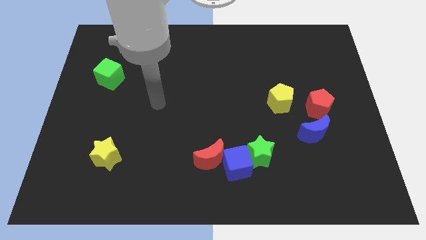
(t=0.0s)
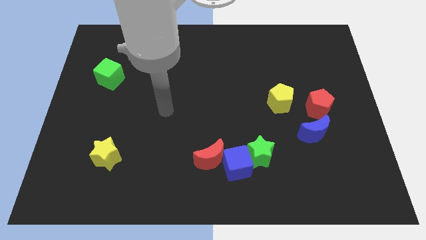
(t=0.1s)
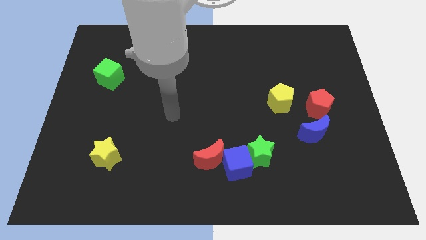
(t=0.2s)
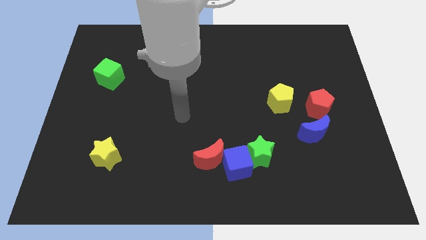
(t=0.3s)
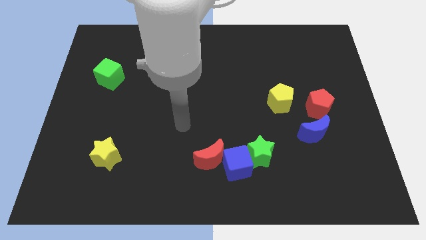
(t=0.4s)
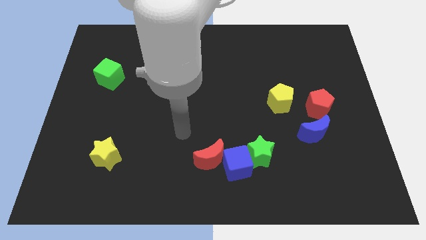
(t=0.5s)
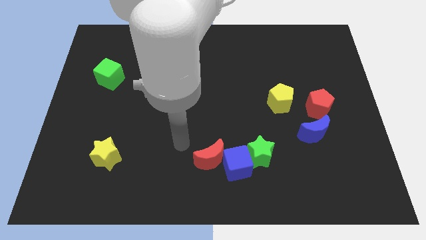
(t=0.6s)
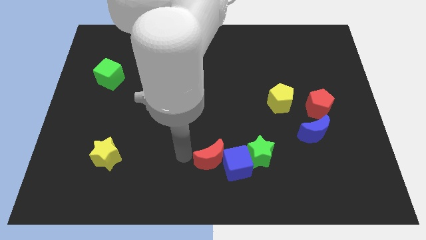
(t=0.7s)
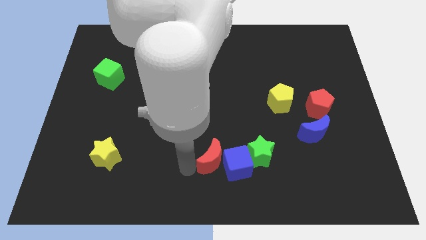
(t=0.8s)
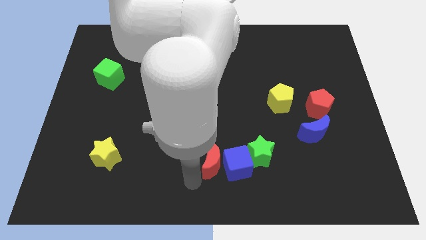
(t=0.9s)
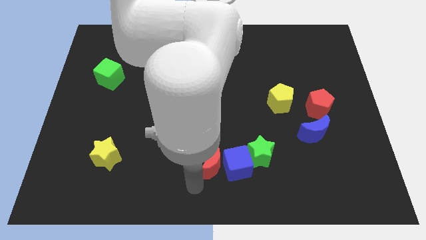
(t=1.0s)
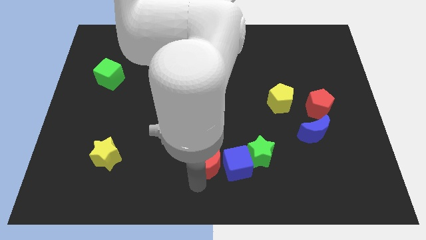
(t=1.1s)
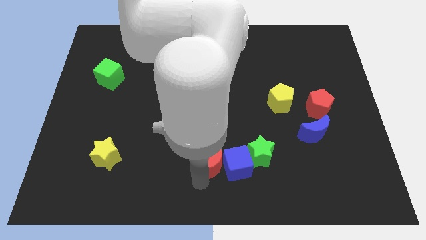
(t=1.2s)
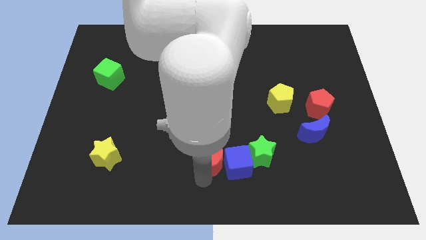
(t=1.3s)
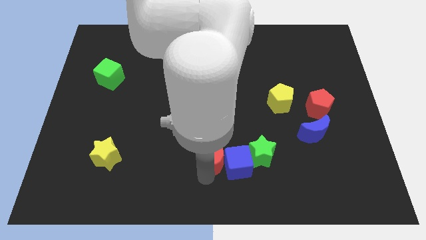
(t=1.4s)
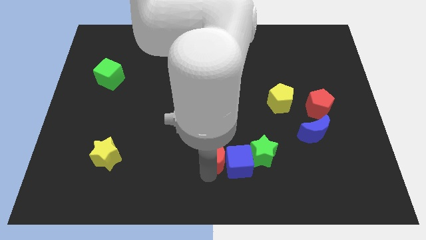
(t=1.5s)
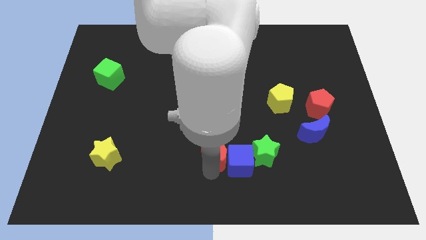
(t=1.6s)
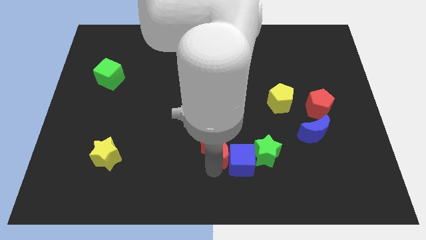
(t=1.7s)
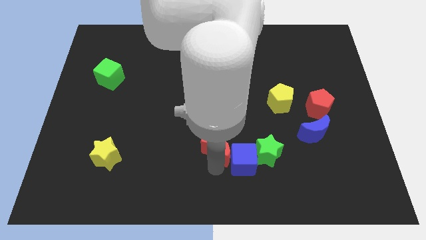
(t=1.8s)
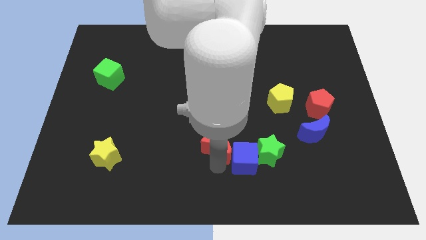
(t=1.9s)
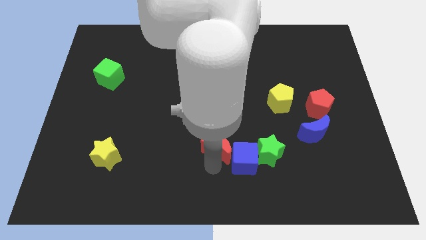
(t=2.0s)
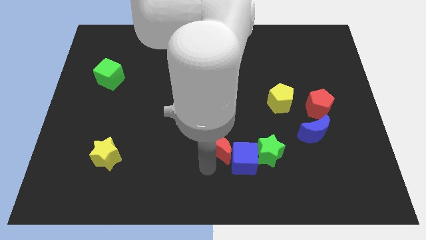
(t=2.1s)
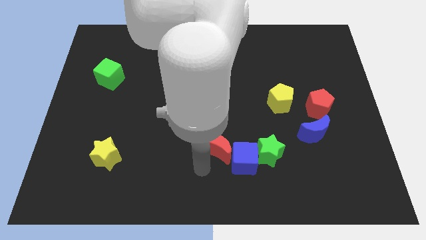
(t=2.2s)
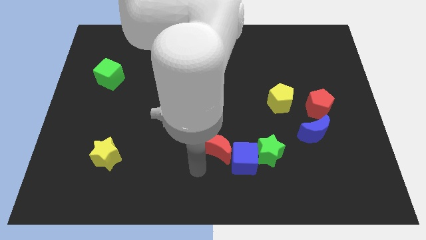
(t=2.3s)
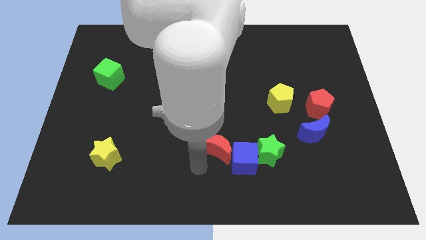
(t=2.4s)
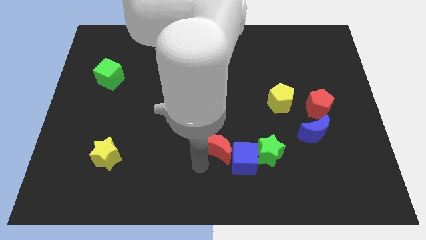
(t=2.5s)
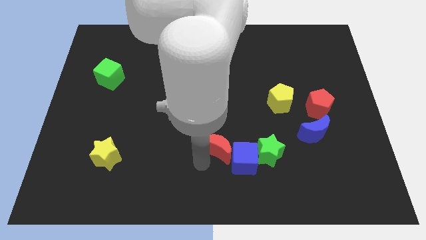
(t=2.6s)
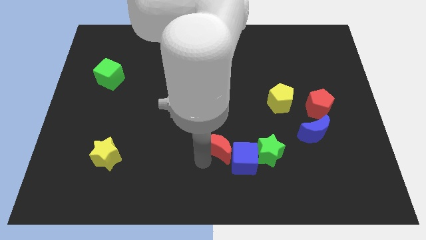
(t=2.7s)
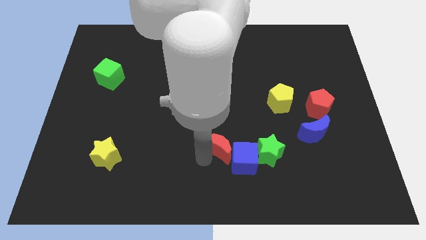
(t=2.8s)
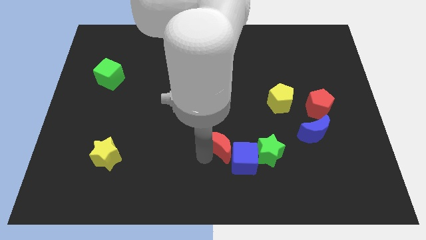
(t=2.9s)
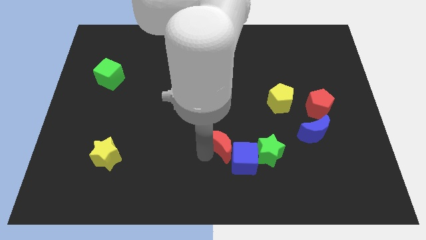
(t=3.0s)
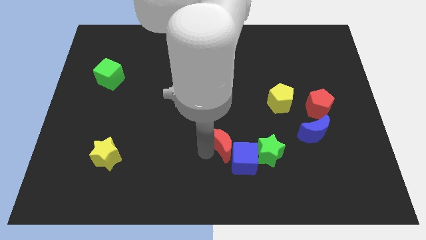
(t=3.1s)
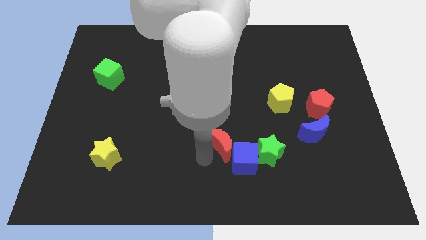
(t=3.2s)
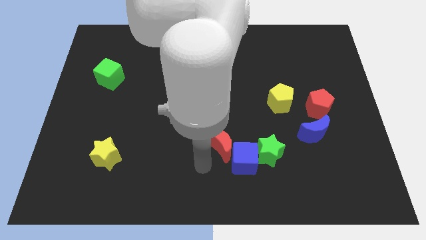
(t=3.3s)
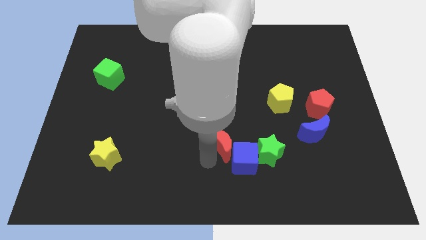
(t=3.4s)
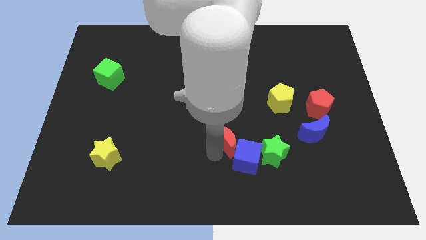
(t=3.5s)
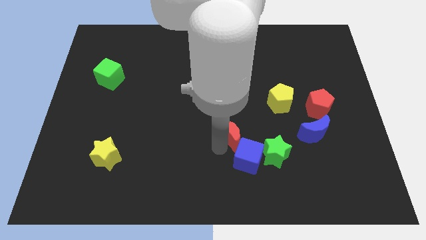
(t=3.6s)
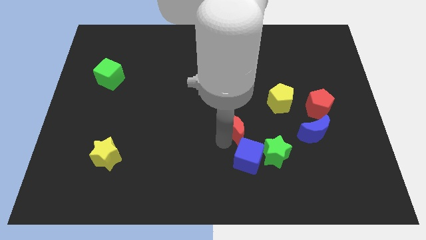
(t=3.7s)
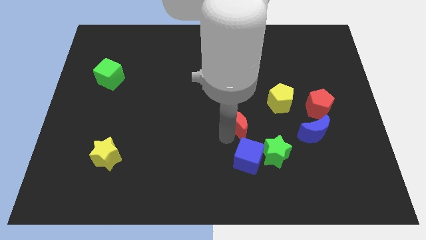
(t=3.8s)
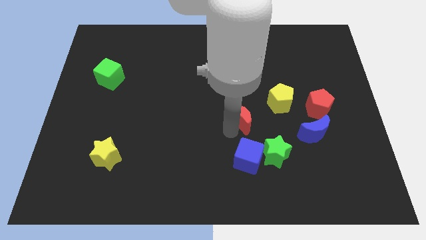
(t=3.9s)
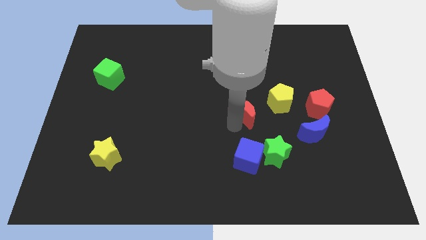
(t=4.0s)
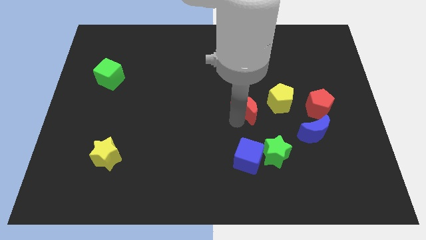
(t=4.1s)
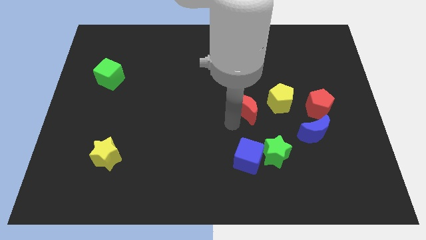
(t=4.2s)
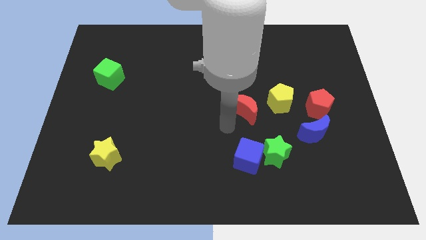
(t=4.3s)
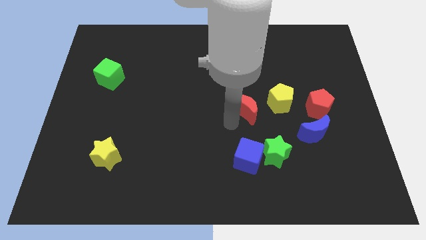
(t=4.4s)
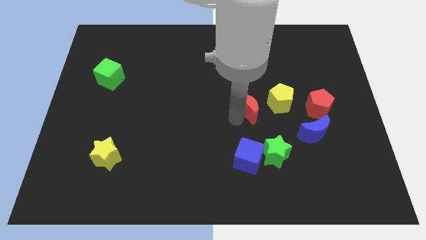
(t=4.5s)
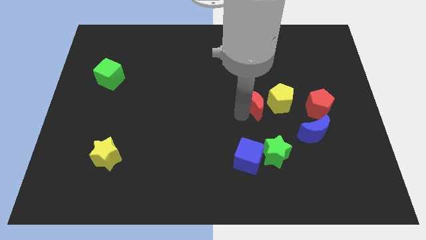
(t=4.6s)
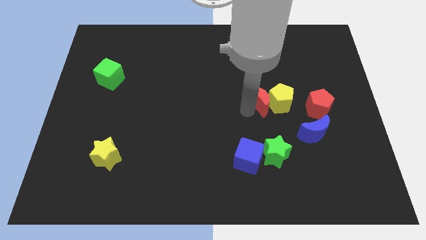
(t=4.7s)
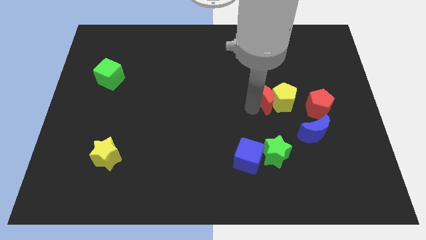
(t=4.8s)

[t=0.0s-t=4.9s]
move the red moon up and then to the right

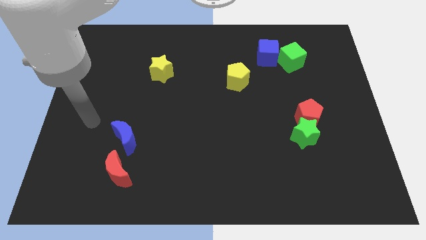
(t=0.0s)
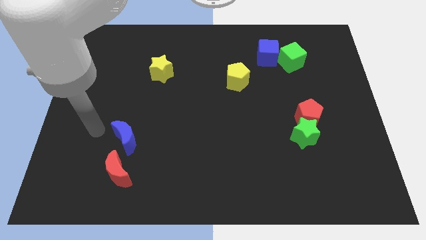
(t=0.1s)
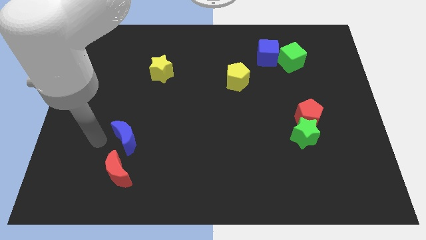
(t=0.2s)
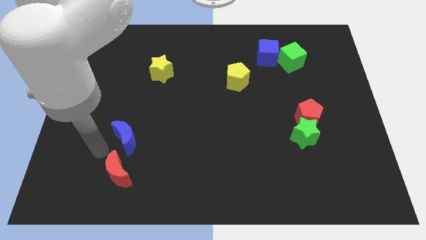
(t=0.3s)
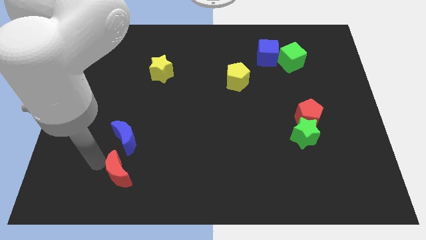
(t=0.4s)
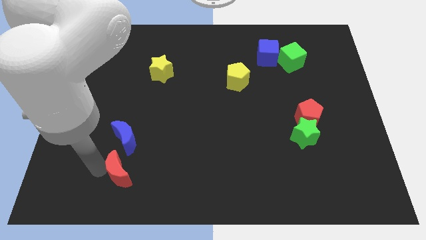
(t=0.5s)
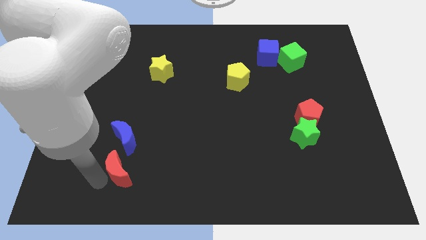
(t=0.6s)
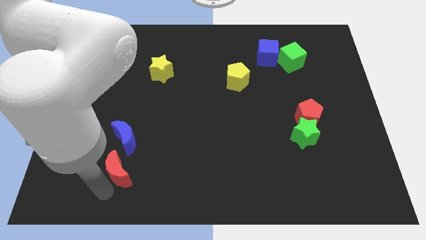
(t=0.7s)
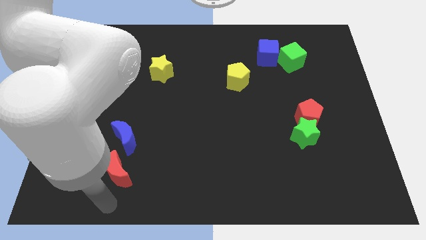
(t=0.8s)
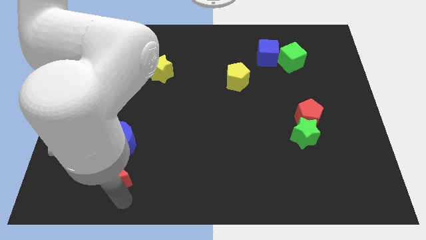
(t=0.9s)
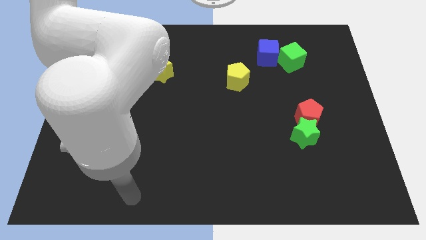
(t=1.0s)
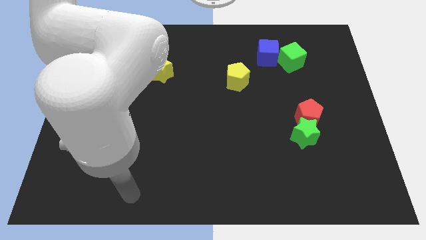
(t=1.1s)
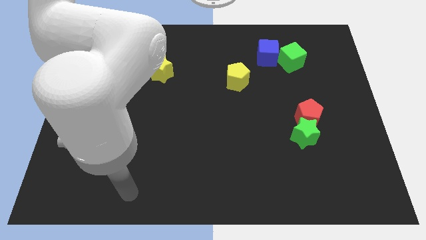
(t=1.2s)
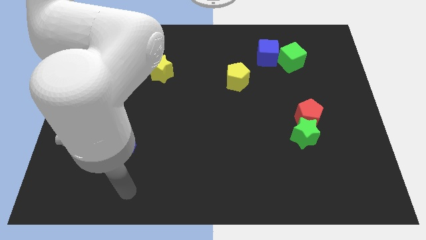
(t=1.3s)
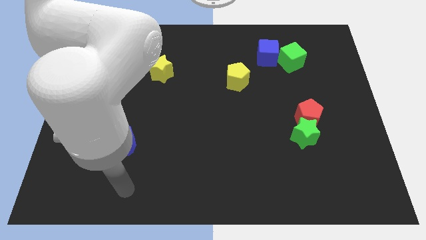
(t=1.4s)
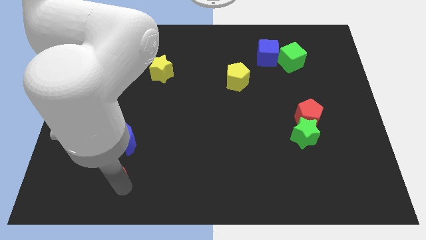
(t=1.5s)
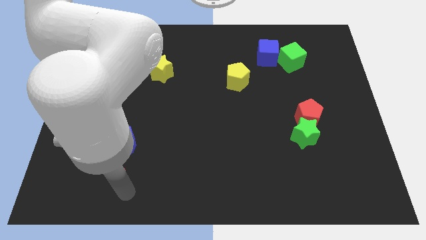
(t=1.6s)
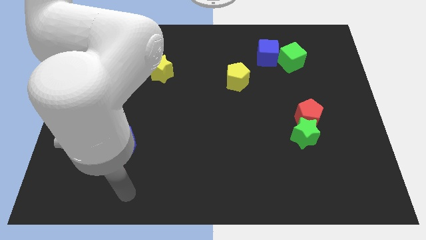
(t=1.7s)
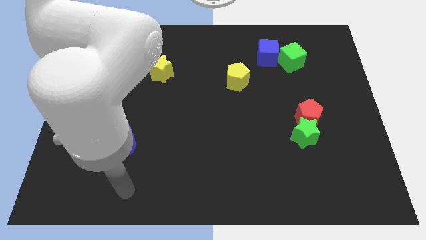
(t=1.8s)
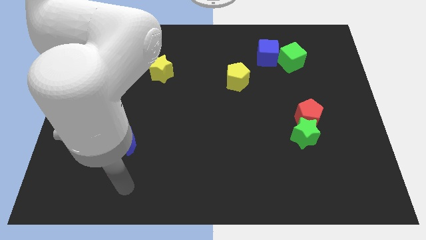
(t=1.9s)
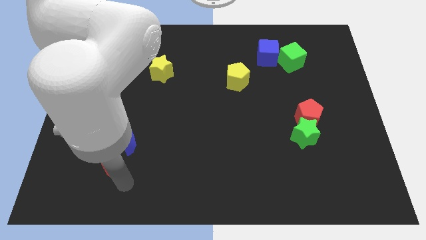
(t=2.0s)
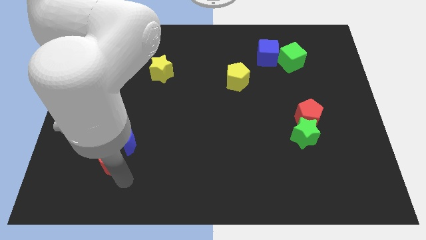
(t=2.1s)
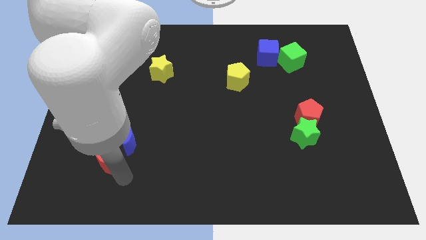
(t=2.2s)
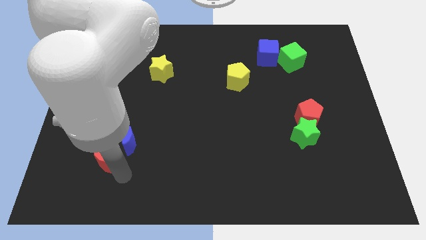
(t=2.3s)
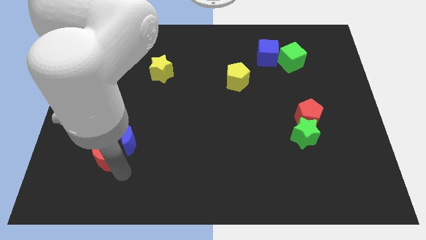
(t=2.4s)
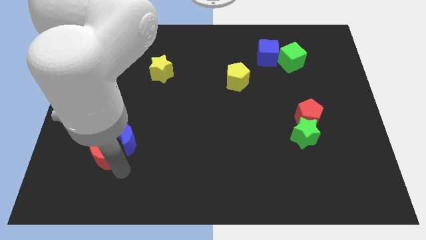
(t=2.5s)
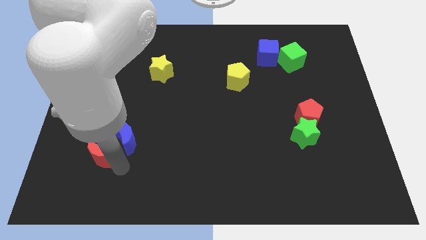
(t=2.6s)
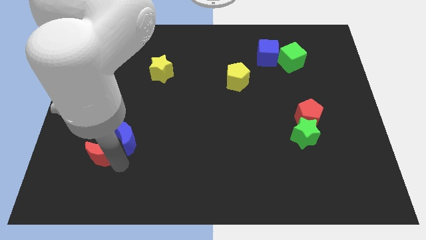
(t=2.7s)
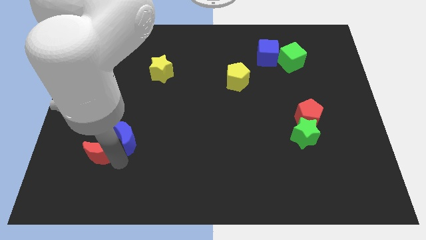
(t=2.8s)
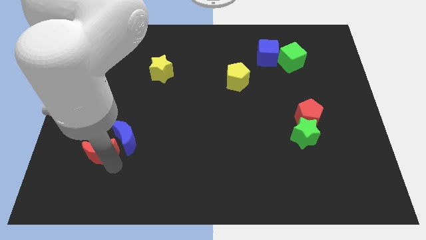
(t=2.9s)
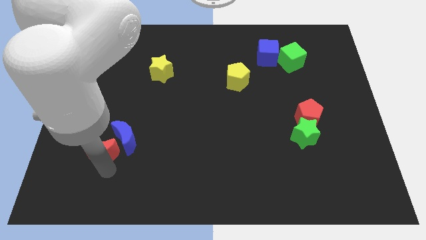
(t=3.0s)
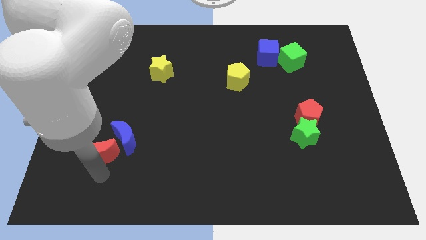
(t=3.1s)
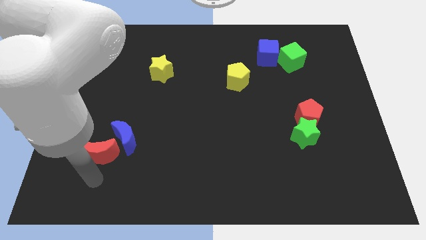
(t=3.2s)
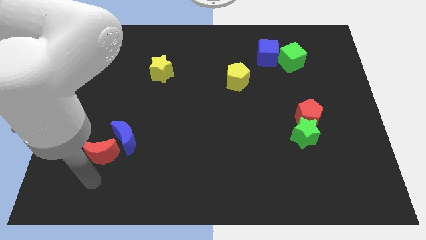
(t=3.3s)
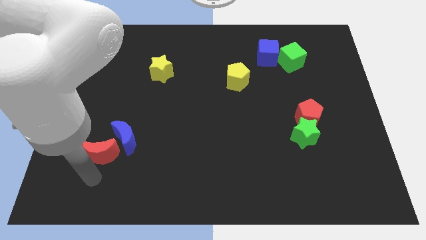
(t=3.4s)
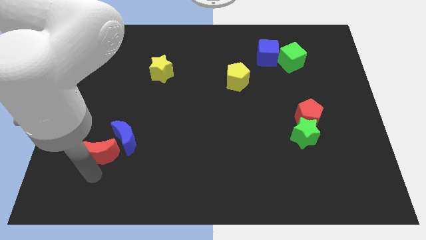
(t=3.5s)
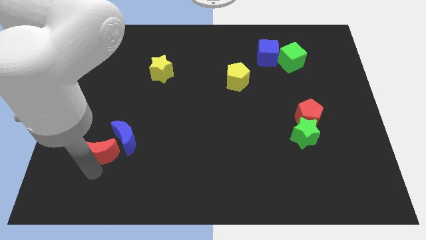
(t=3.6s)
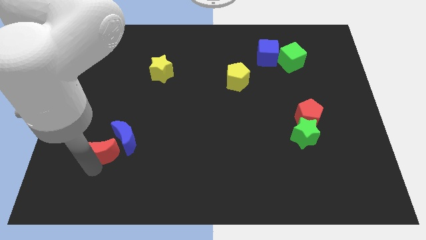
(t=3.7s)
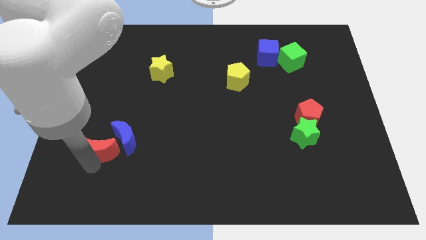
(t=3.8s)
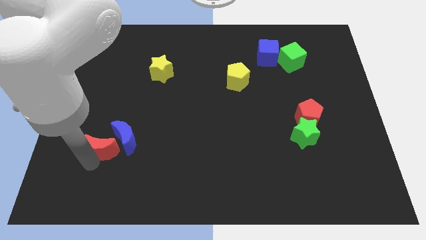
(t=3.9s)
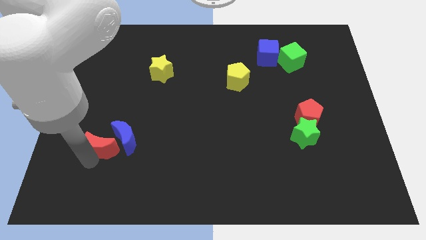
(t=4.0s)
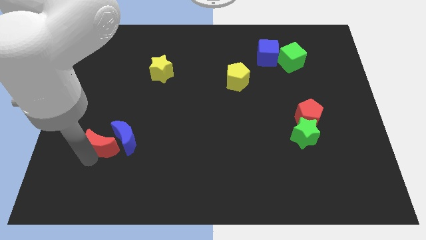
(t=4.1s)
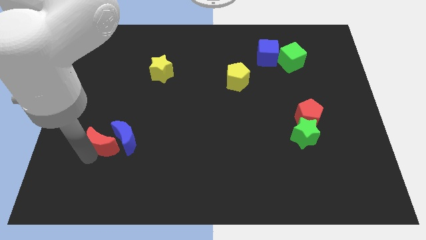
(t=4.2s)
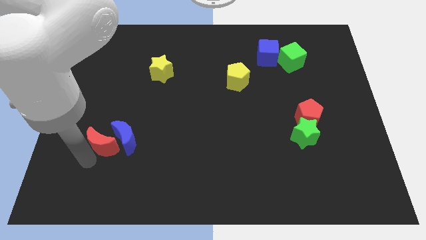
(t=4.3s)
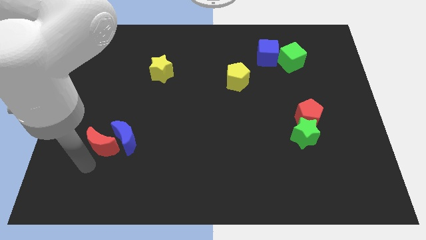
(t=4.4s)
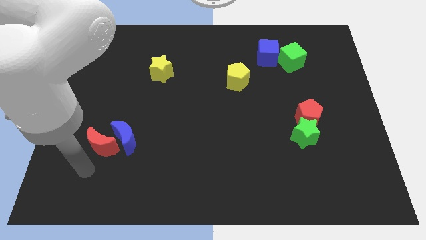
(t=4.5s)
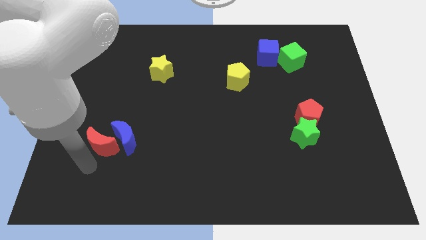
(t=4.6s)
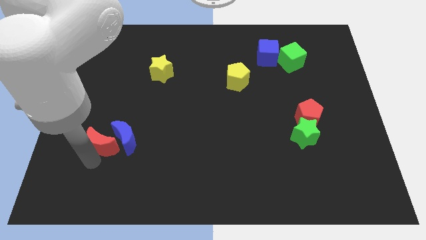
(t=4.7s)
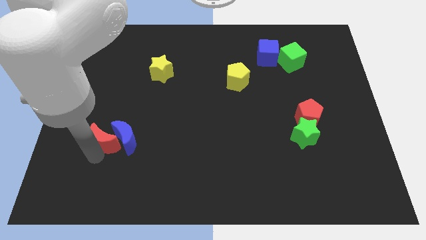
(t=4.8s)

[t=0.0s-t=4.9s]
slightly move the red moon upwards
